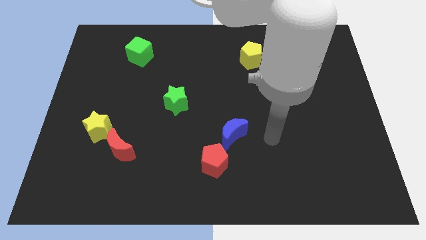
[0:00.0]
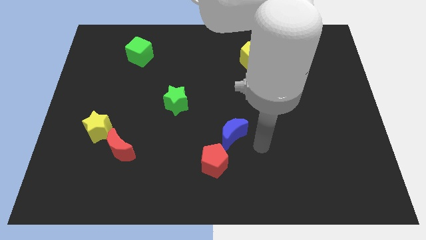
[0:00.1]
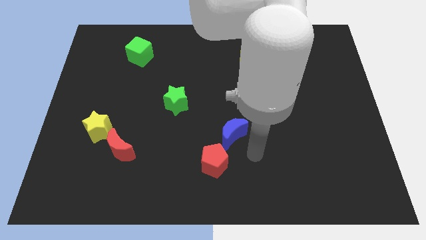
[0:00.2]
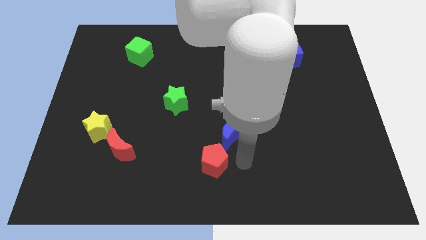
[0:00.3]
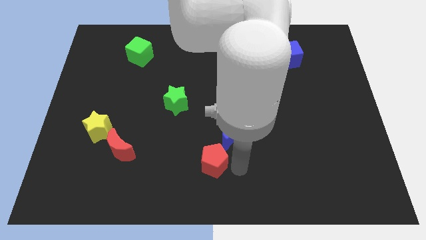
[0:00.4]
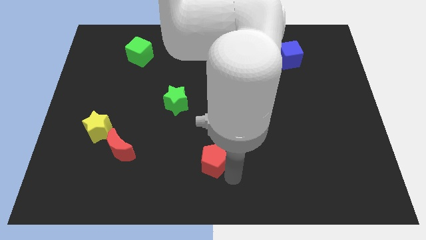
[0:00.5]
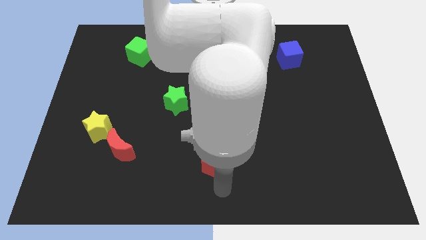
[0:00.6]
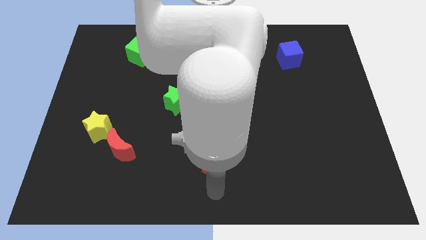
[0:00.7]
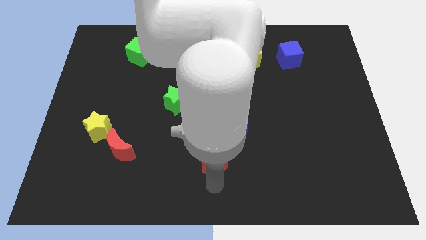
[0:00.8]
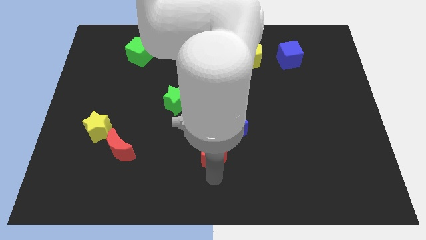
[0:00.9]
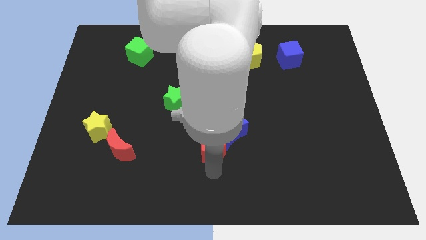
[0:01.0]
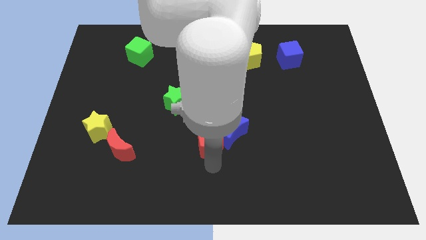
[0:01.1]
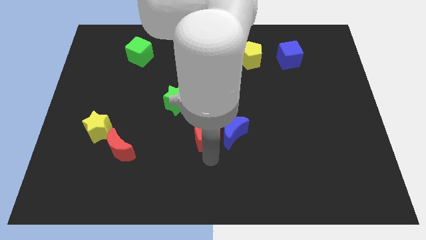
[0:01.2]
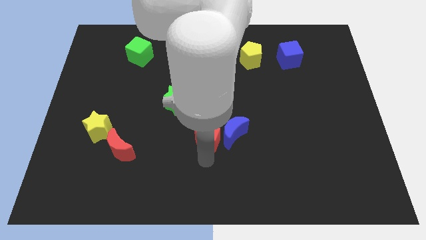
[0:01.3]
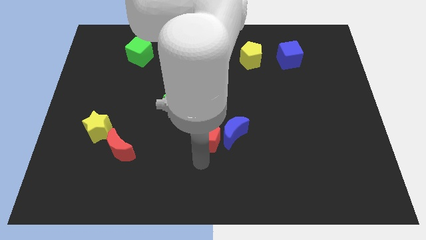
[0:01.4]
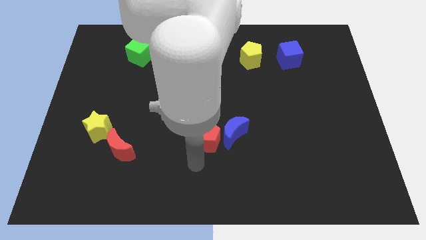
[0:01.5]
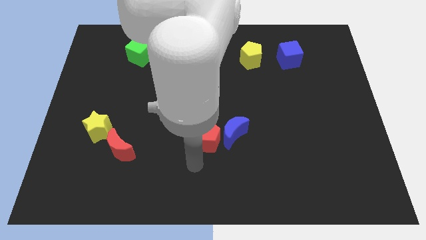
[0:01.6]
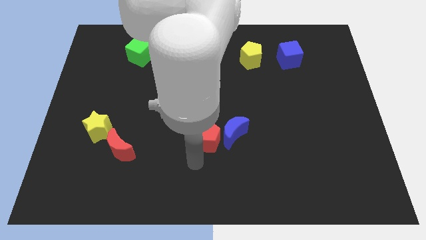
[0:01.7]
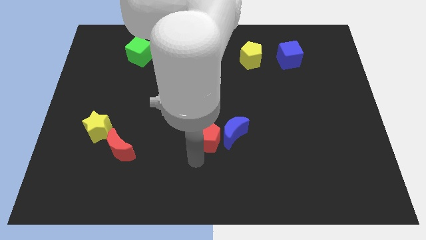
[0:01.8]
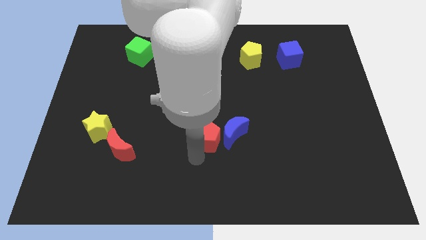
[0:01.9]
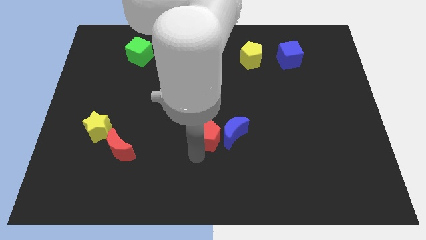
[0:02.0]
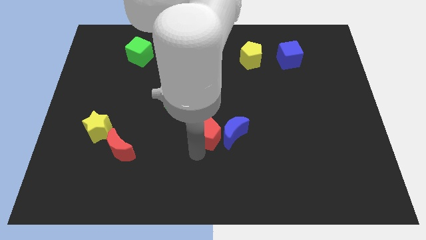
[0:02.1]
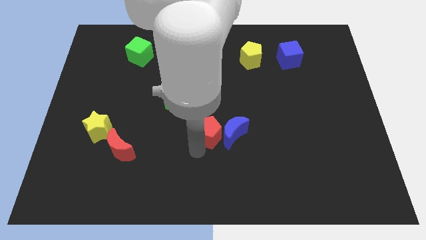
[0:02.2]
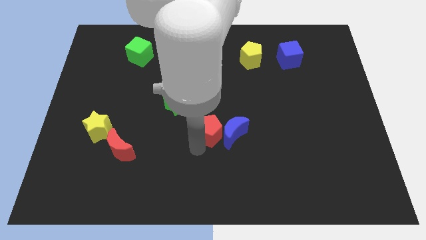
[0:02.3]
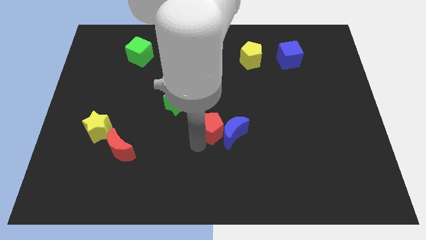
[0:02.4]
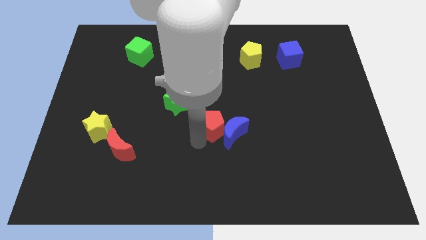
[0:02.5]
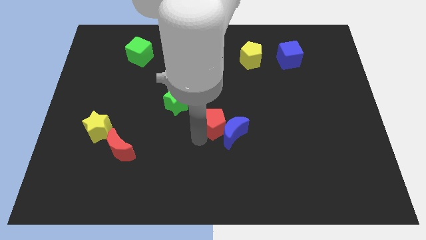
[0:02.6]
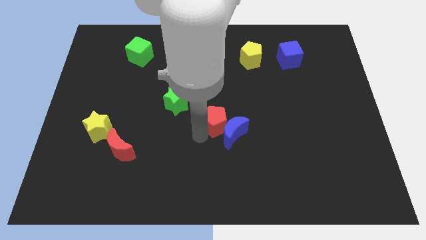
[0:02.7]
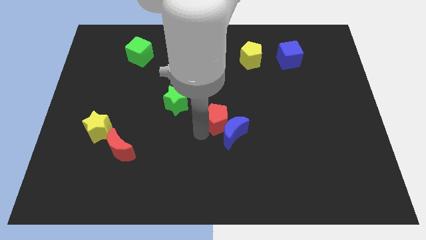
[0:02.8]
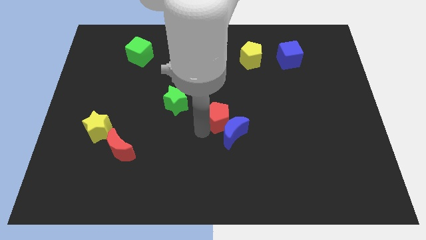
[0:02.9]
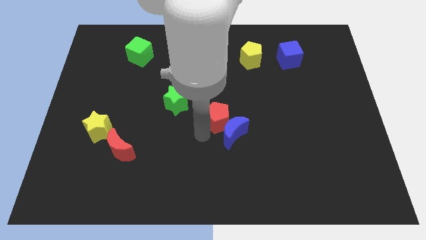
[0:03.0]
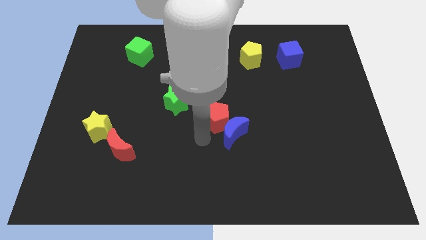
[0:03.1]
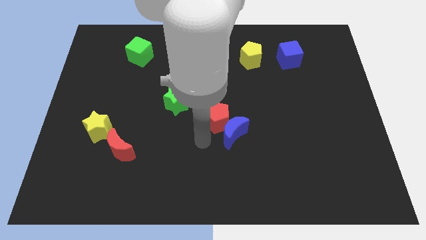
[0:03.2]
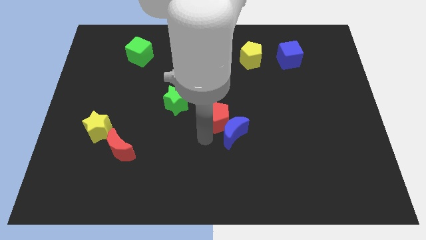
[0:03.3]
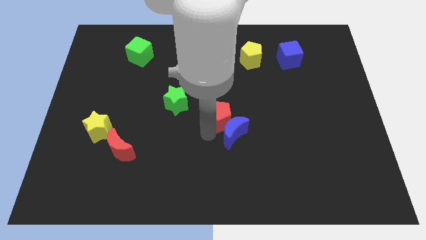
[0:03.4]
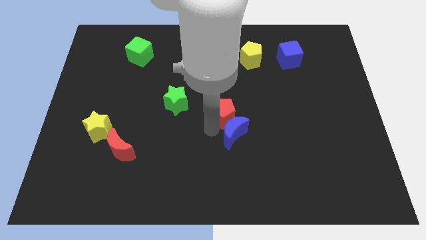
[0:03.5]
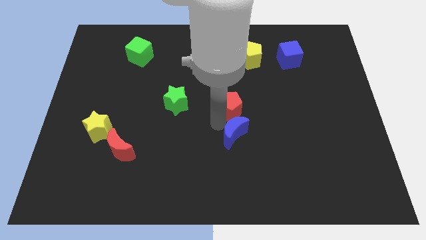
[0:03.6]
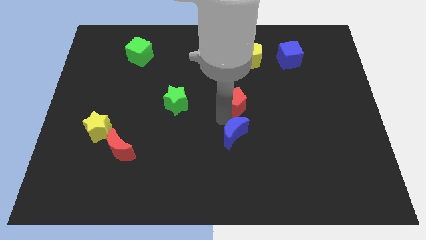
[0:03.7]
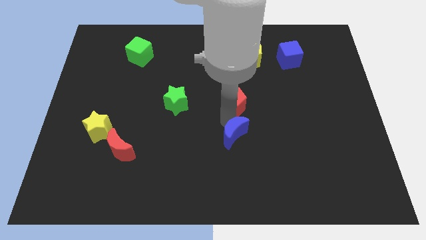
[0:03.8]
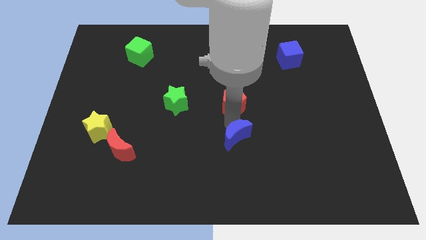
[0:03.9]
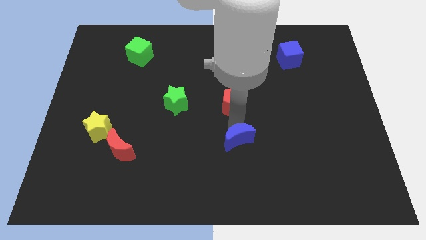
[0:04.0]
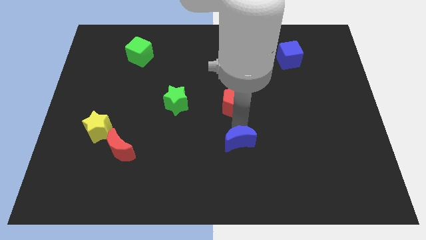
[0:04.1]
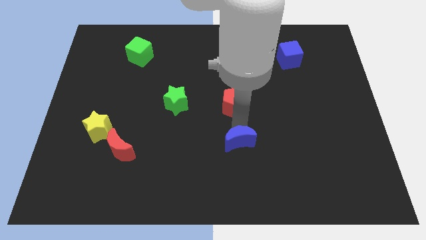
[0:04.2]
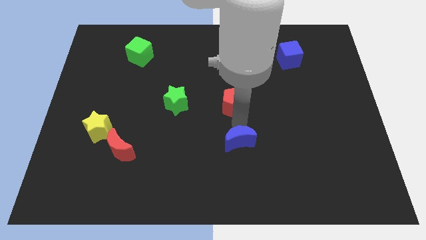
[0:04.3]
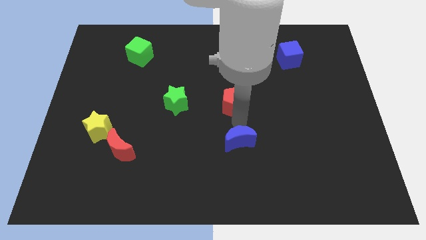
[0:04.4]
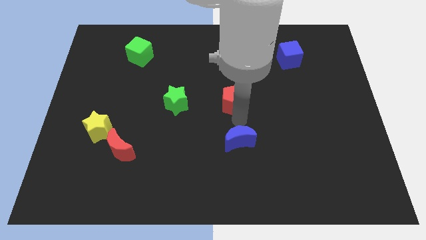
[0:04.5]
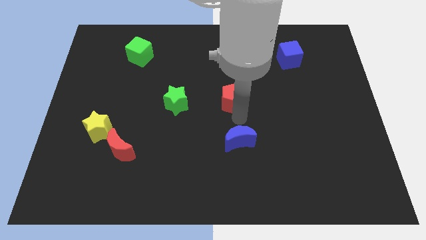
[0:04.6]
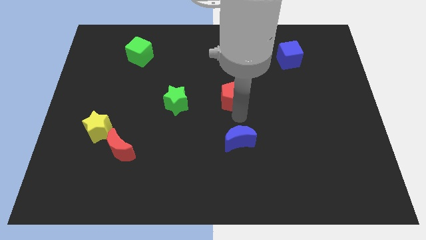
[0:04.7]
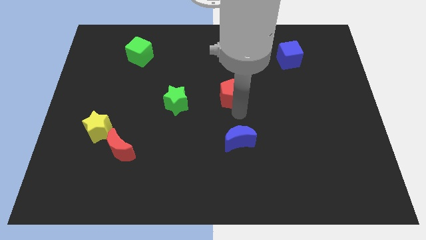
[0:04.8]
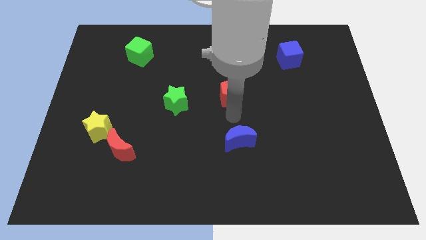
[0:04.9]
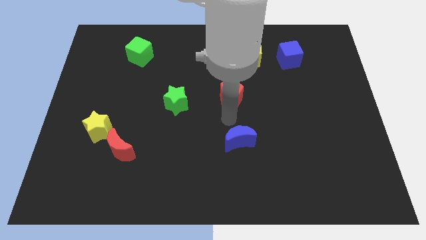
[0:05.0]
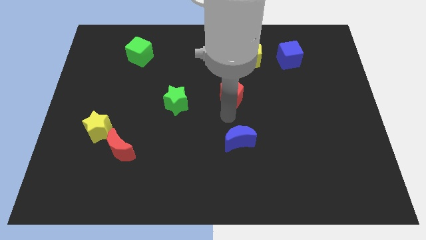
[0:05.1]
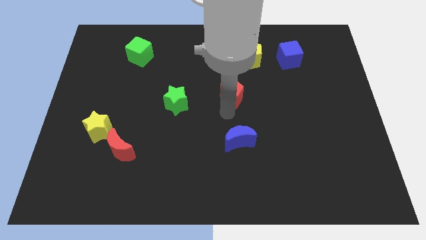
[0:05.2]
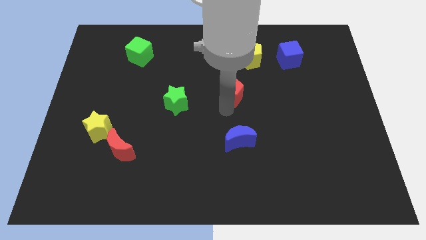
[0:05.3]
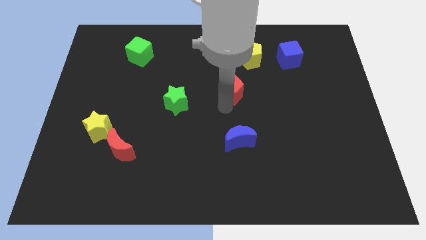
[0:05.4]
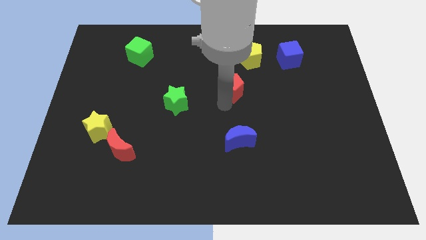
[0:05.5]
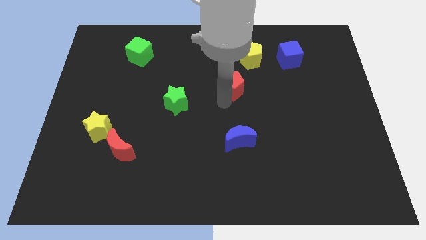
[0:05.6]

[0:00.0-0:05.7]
put the red pentagon to the bottom left of the yellow pentagon

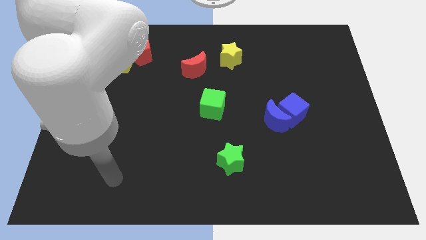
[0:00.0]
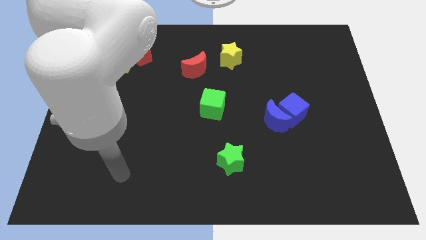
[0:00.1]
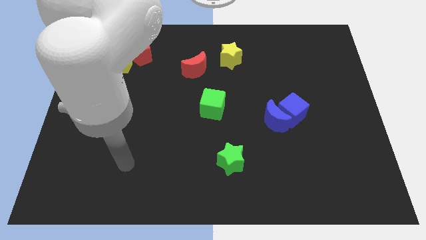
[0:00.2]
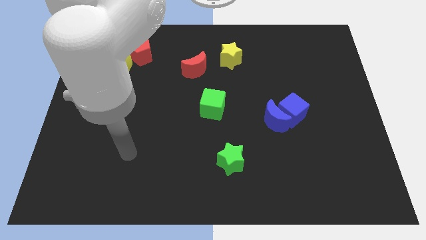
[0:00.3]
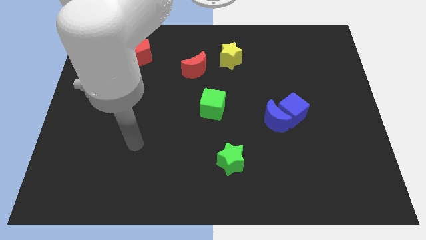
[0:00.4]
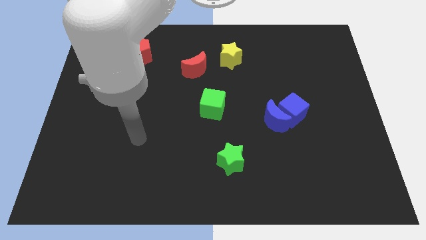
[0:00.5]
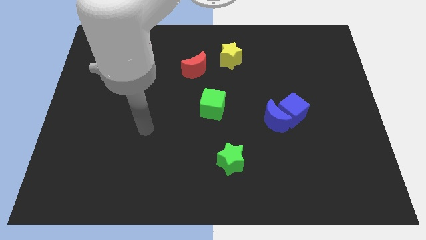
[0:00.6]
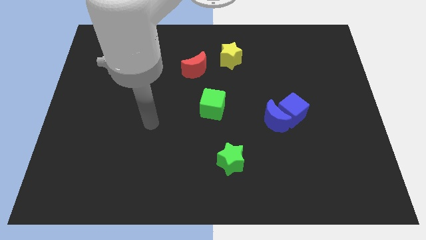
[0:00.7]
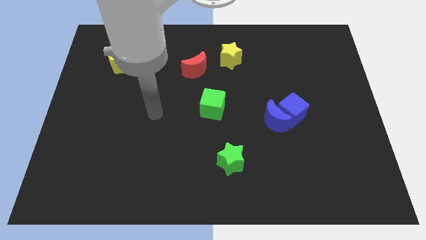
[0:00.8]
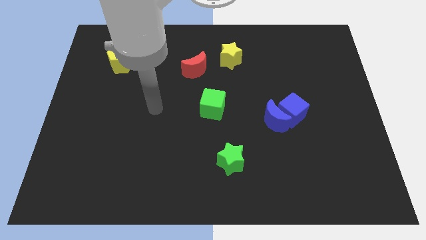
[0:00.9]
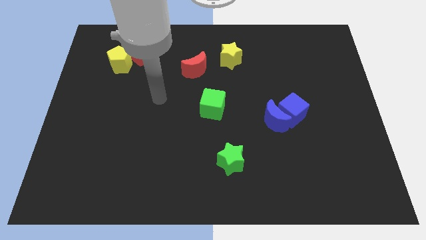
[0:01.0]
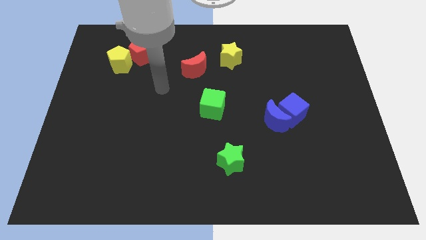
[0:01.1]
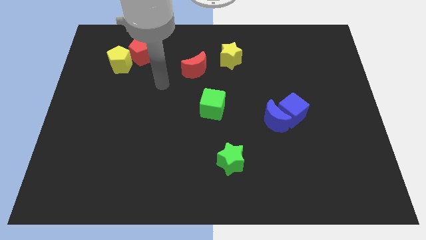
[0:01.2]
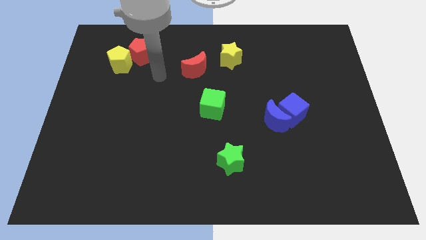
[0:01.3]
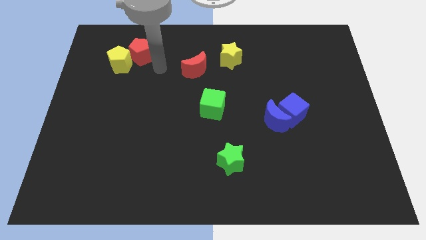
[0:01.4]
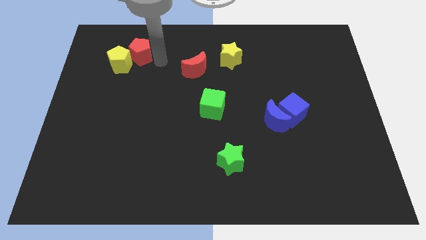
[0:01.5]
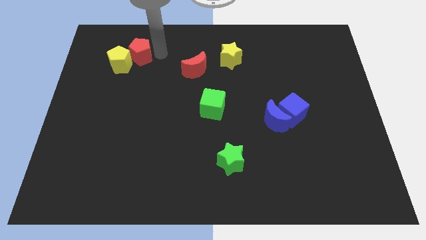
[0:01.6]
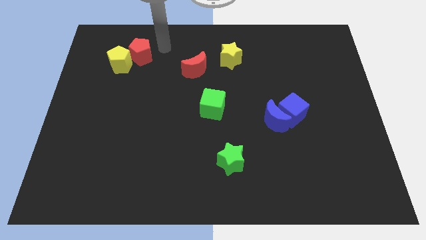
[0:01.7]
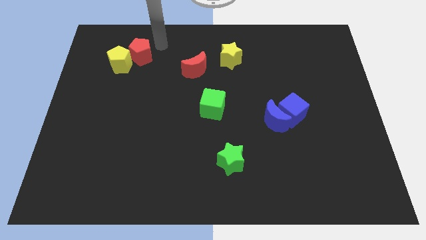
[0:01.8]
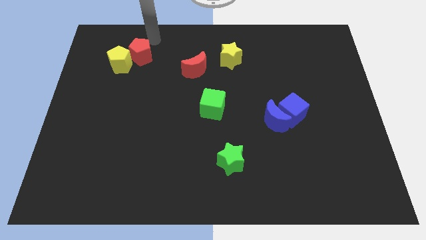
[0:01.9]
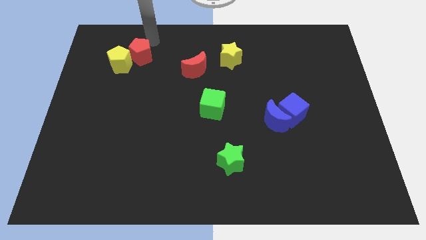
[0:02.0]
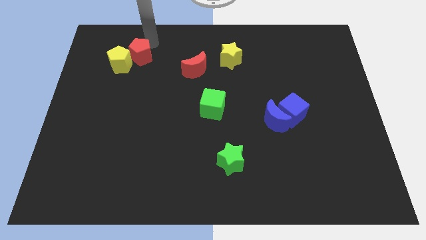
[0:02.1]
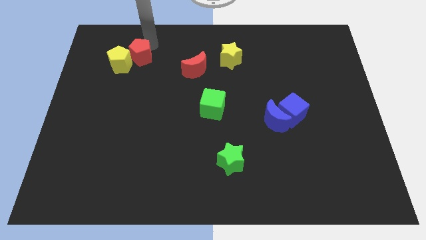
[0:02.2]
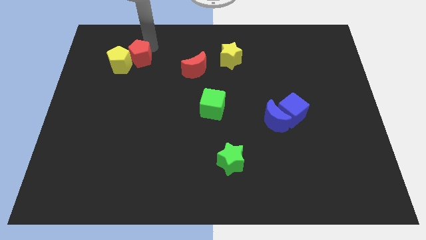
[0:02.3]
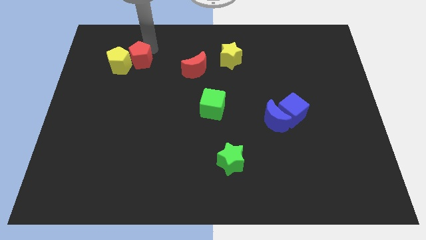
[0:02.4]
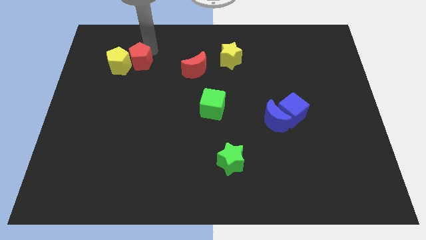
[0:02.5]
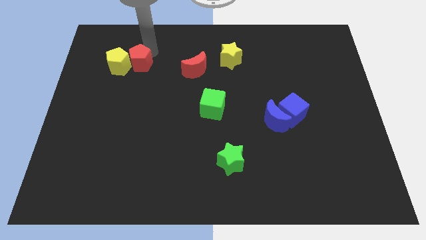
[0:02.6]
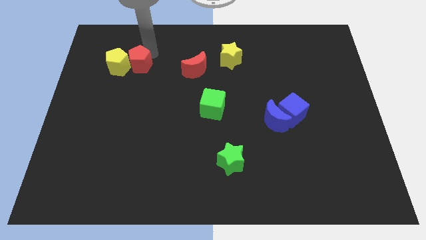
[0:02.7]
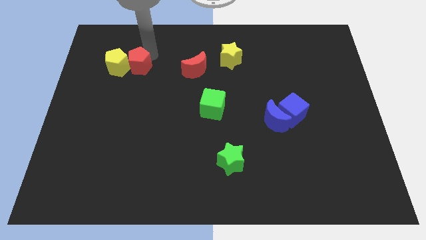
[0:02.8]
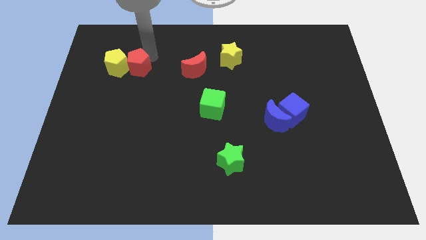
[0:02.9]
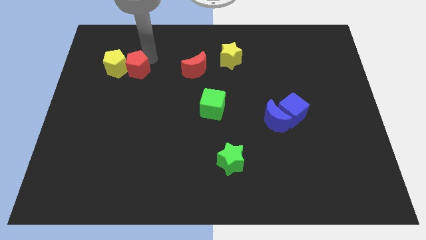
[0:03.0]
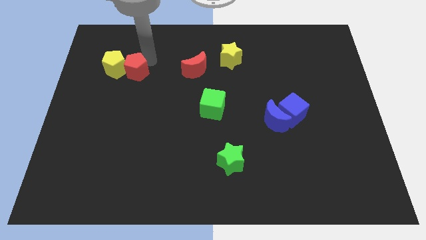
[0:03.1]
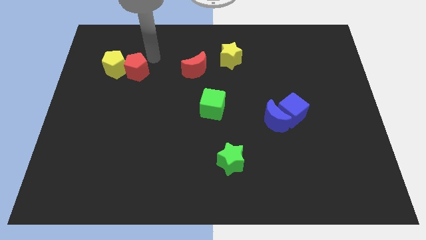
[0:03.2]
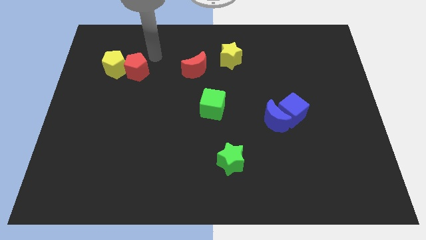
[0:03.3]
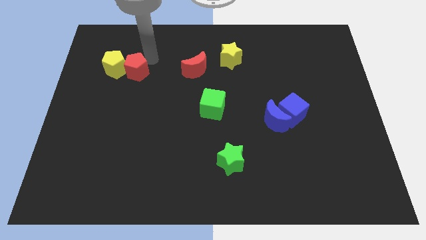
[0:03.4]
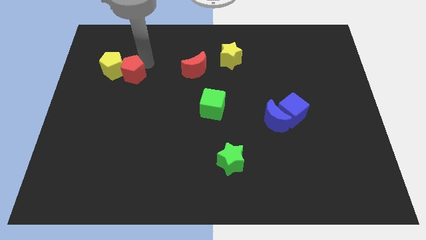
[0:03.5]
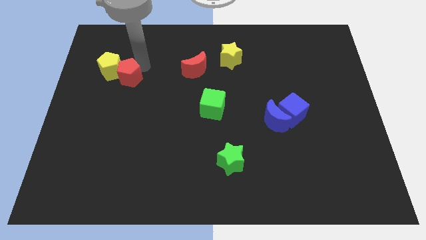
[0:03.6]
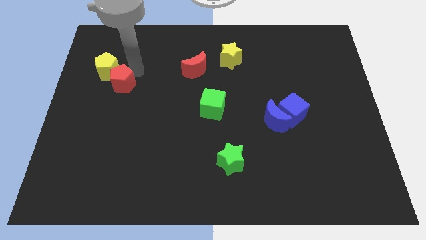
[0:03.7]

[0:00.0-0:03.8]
slide the red pentagon to the bottom side of the yellow pentagon
